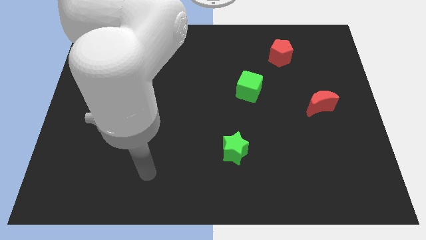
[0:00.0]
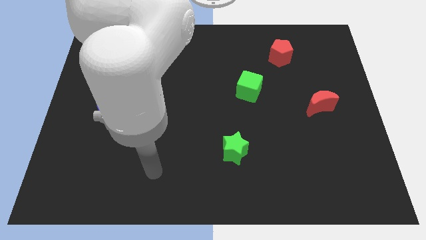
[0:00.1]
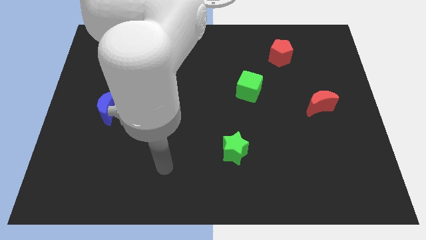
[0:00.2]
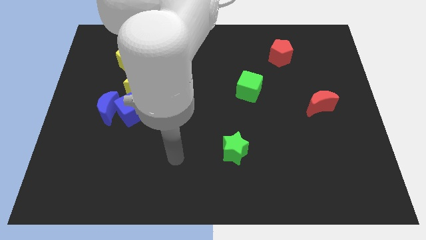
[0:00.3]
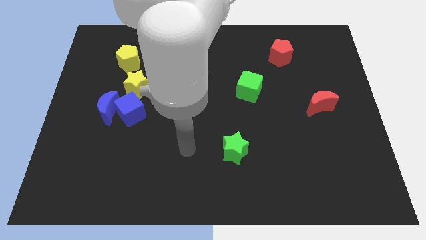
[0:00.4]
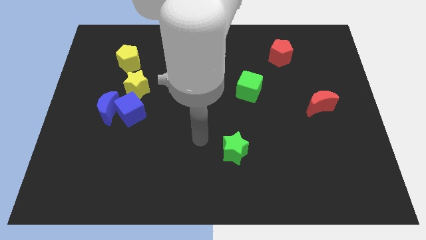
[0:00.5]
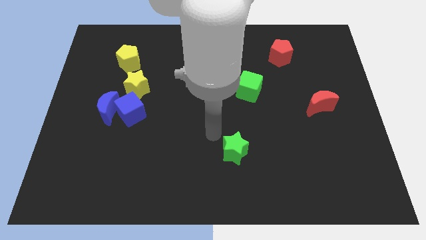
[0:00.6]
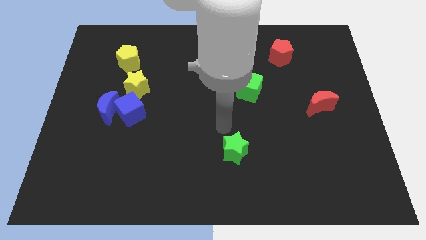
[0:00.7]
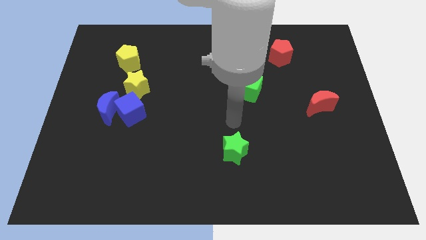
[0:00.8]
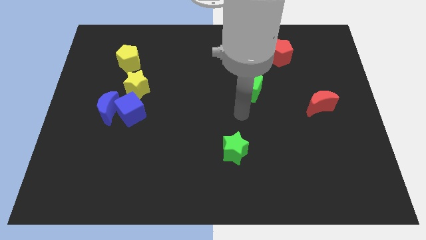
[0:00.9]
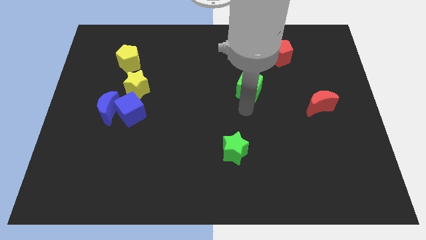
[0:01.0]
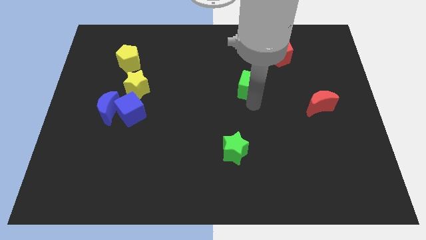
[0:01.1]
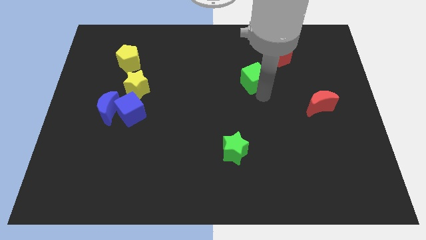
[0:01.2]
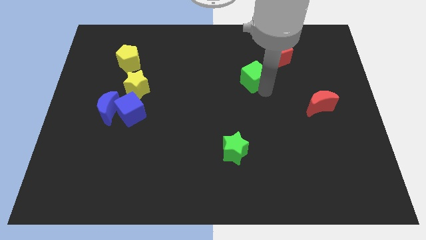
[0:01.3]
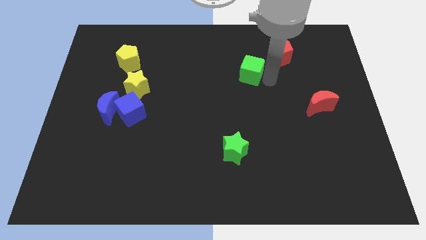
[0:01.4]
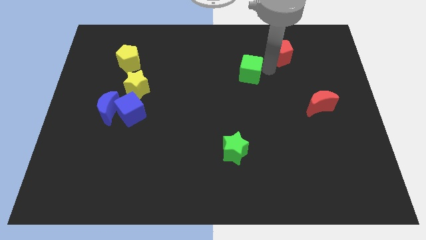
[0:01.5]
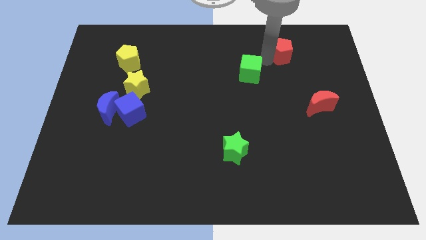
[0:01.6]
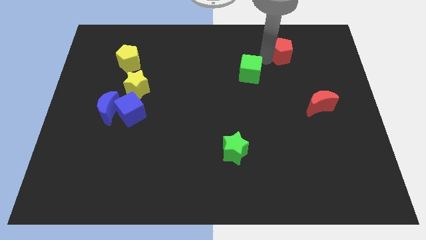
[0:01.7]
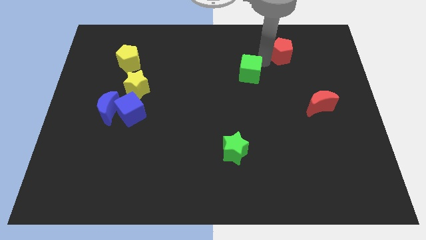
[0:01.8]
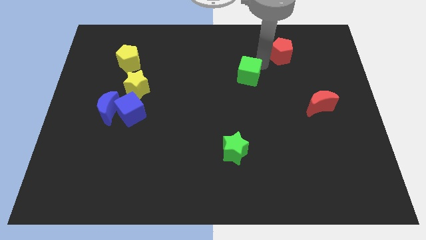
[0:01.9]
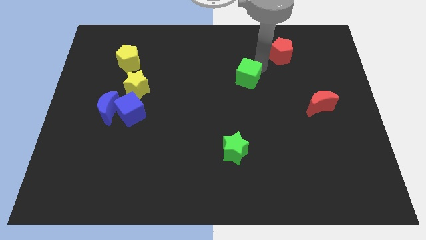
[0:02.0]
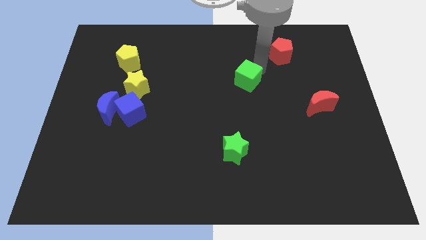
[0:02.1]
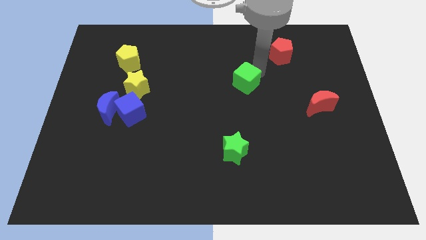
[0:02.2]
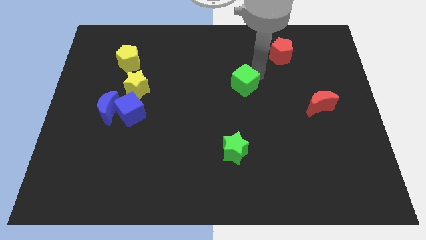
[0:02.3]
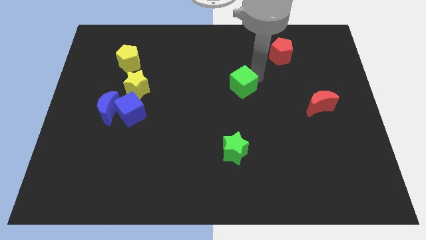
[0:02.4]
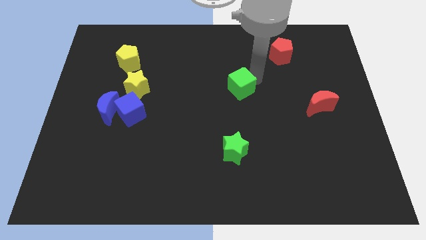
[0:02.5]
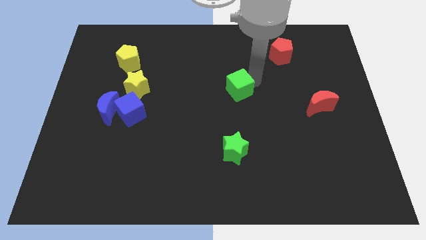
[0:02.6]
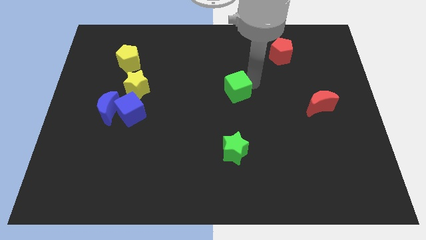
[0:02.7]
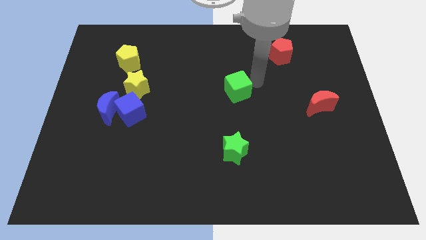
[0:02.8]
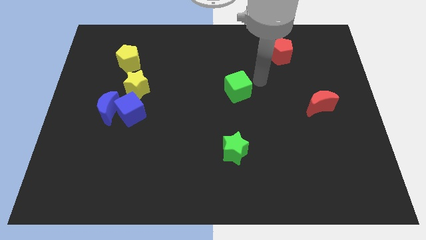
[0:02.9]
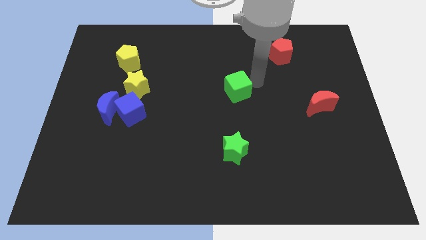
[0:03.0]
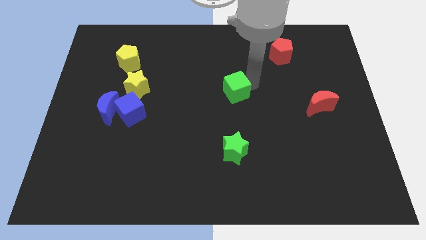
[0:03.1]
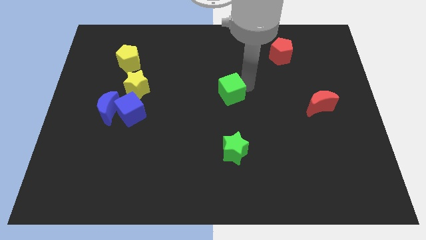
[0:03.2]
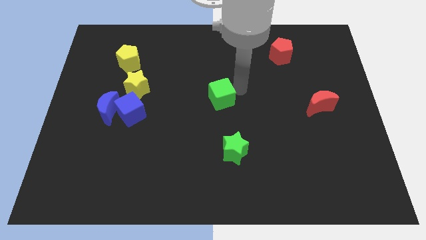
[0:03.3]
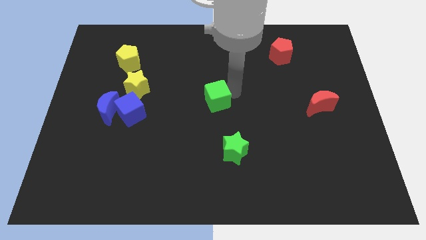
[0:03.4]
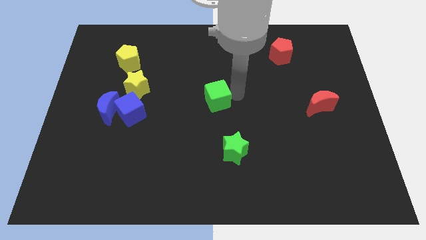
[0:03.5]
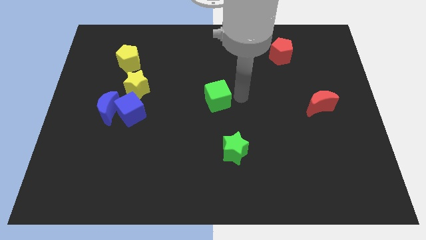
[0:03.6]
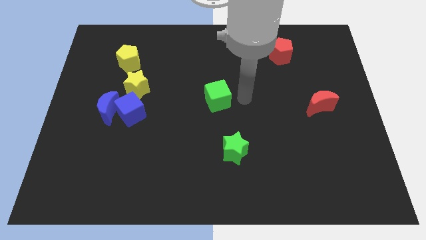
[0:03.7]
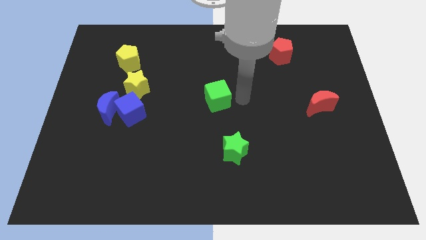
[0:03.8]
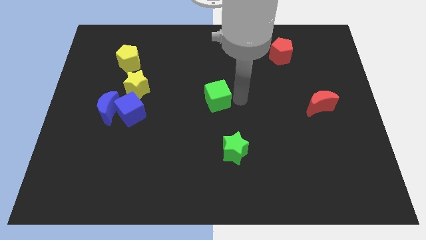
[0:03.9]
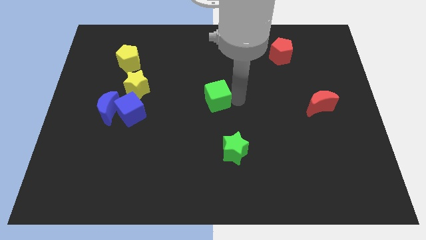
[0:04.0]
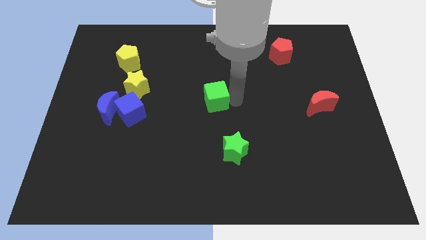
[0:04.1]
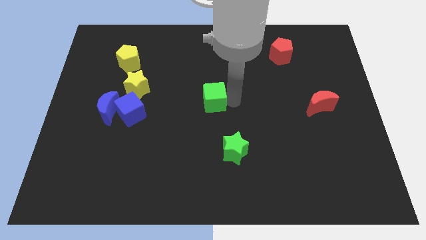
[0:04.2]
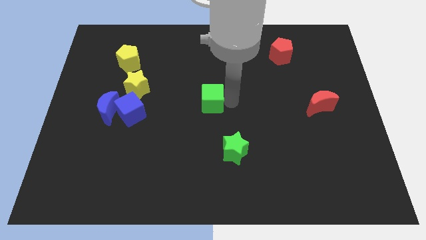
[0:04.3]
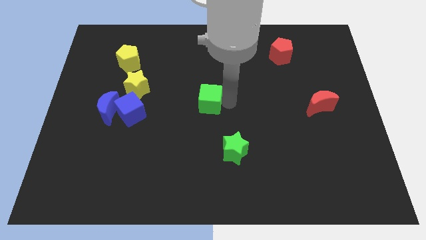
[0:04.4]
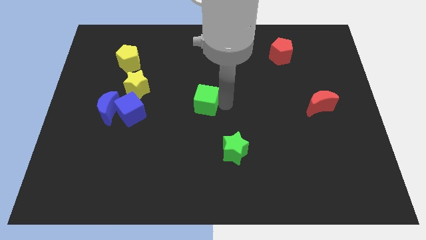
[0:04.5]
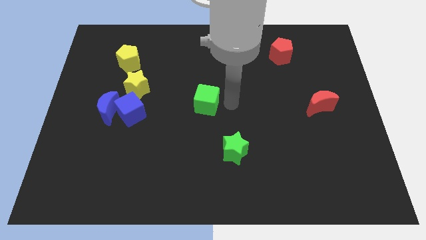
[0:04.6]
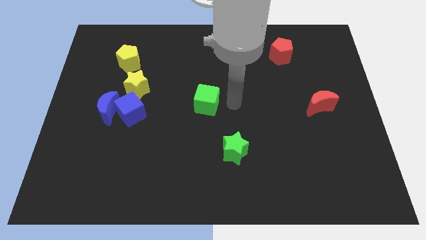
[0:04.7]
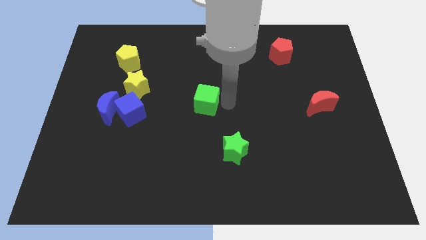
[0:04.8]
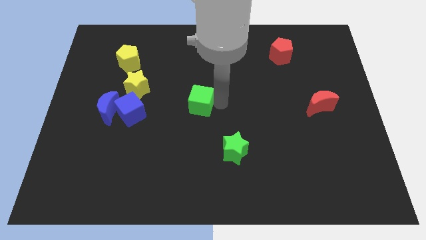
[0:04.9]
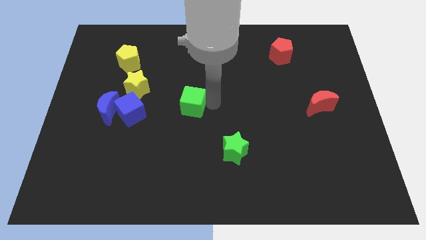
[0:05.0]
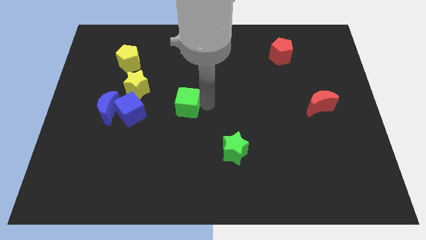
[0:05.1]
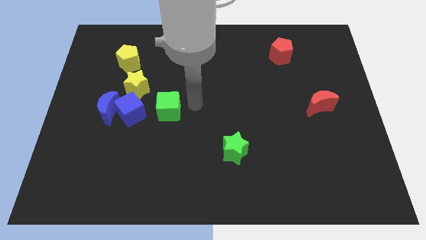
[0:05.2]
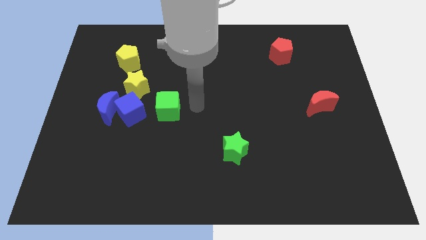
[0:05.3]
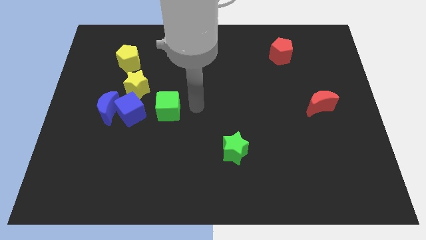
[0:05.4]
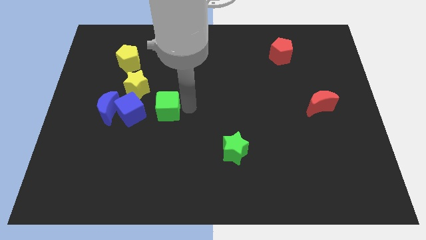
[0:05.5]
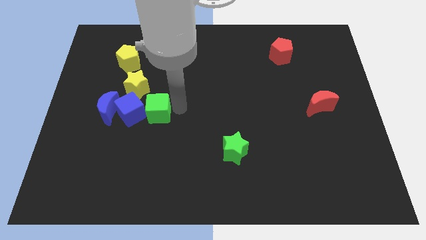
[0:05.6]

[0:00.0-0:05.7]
push the green cube towards the blue cube

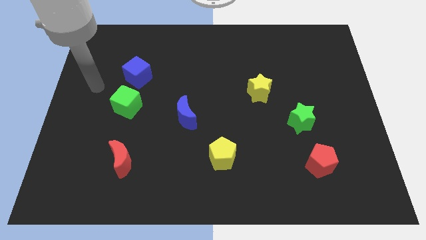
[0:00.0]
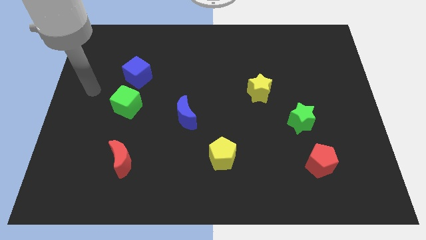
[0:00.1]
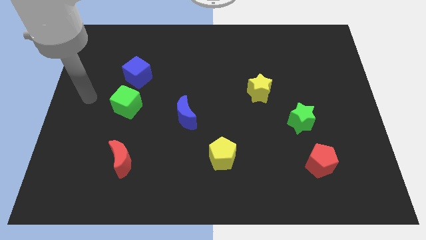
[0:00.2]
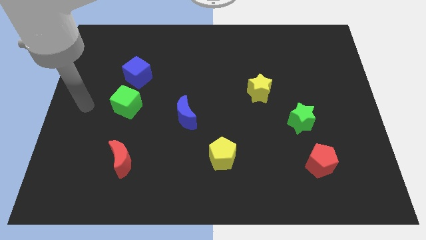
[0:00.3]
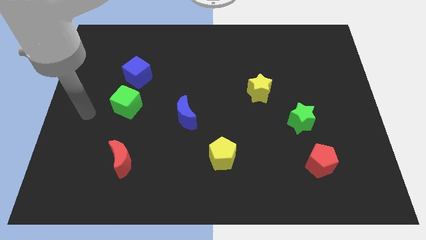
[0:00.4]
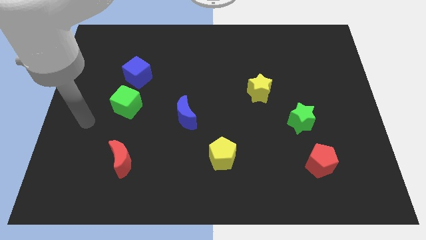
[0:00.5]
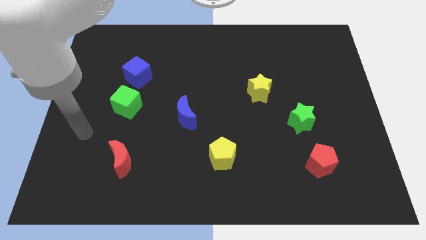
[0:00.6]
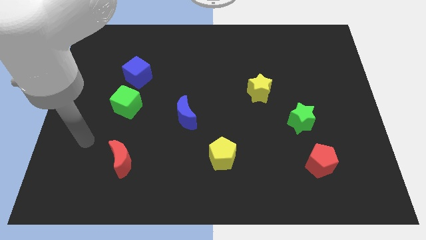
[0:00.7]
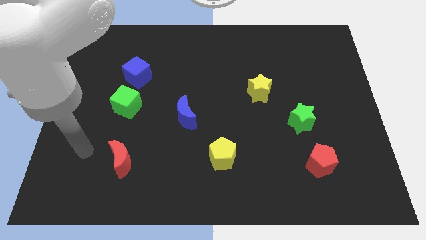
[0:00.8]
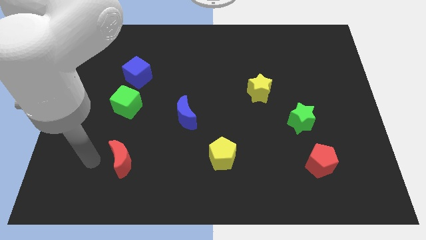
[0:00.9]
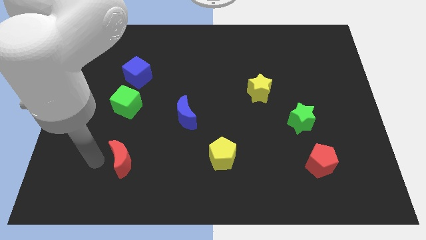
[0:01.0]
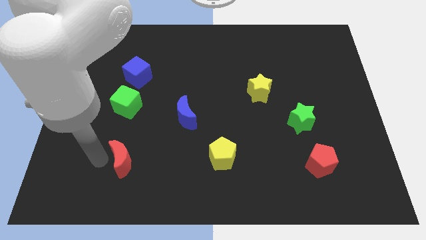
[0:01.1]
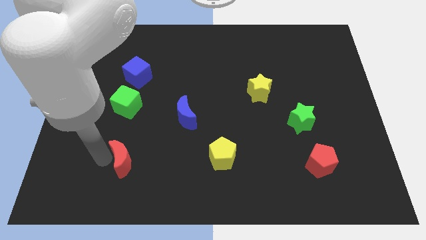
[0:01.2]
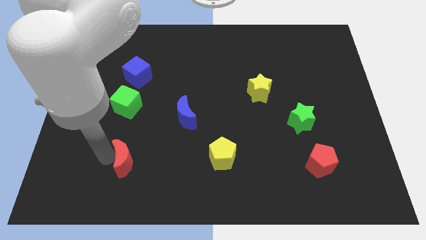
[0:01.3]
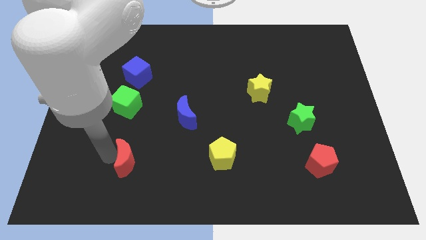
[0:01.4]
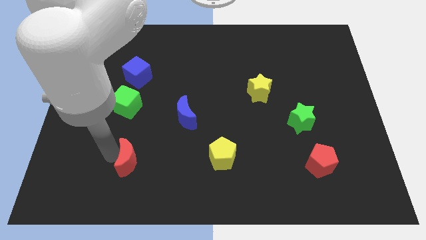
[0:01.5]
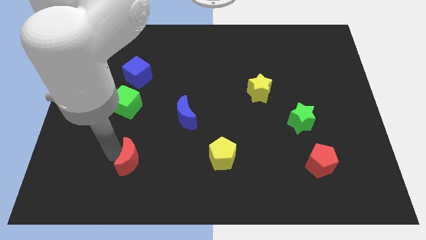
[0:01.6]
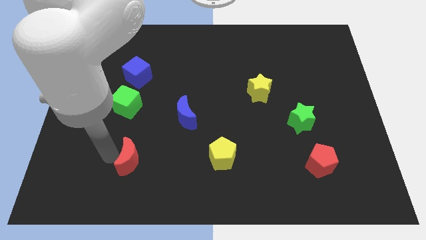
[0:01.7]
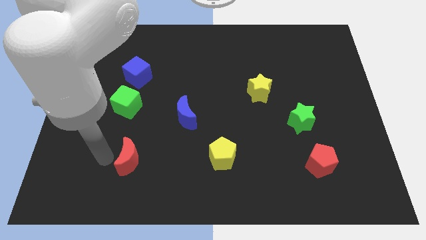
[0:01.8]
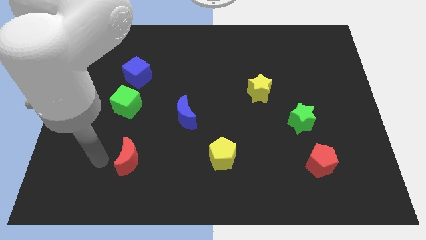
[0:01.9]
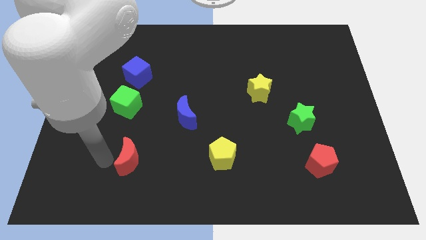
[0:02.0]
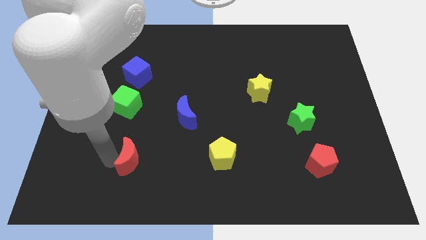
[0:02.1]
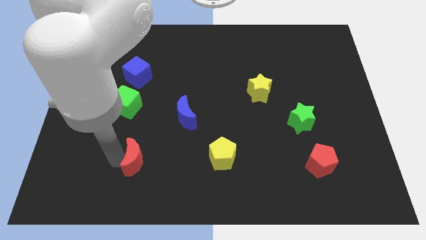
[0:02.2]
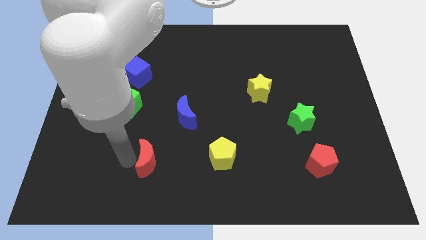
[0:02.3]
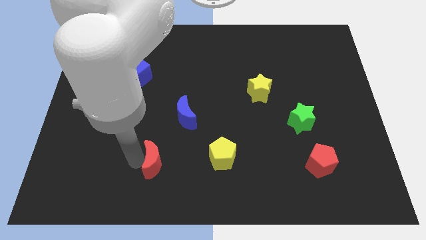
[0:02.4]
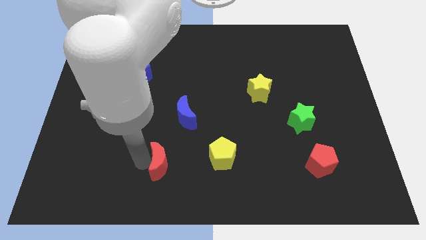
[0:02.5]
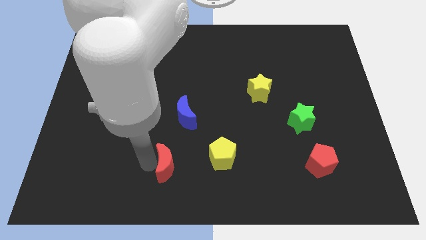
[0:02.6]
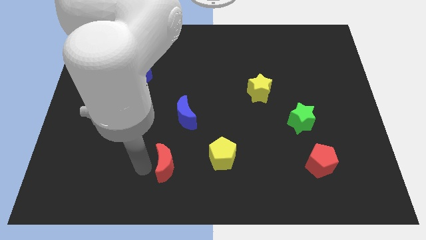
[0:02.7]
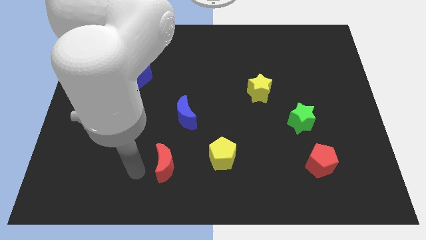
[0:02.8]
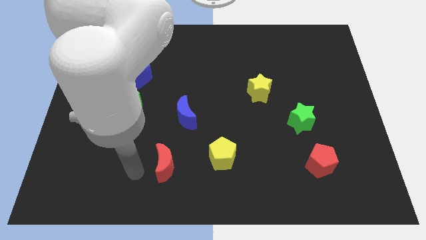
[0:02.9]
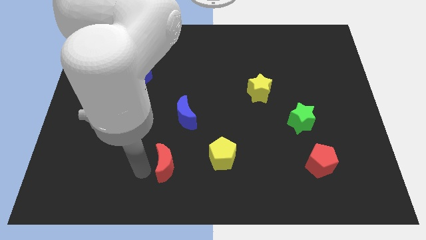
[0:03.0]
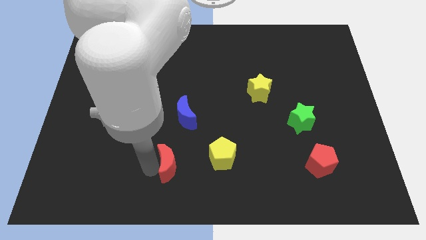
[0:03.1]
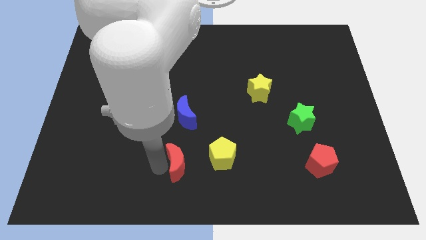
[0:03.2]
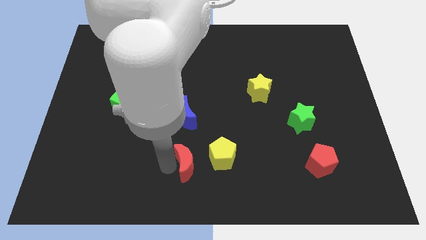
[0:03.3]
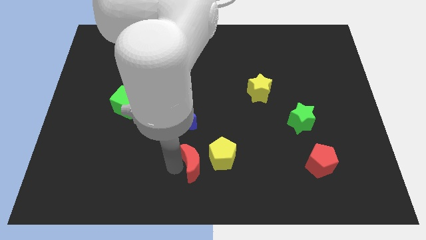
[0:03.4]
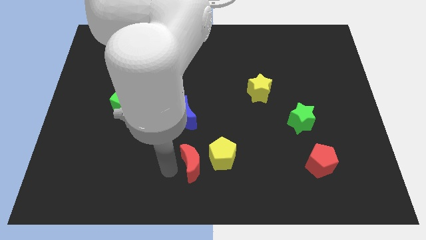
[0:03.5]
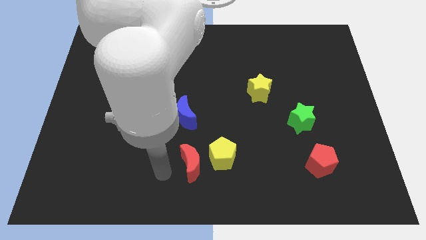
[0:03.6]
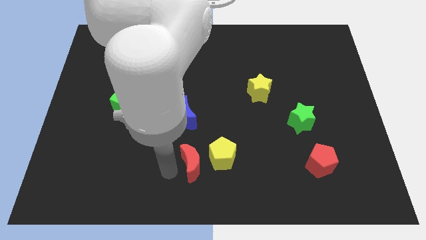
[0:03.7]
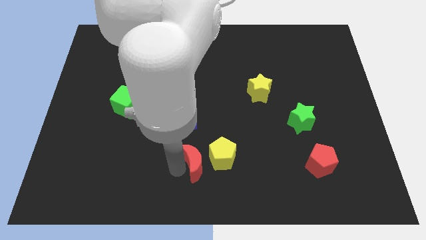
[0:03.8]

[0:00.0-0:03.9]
push the red moon towards the yellow pentagon
